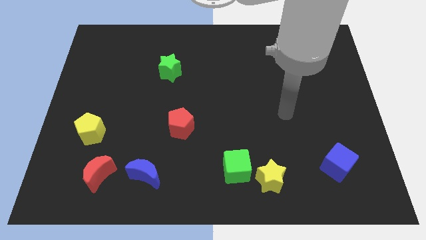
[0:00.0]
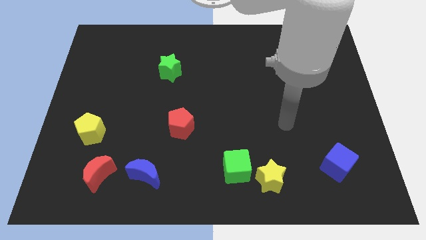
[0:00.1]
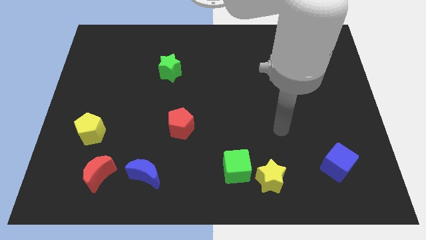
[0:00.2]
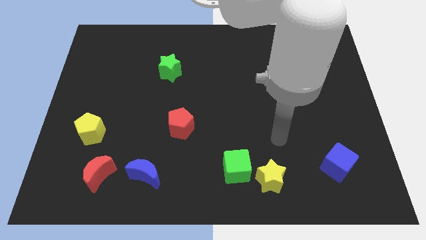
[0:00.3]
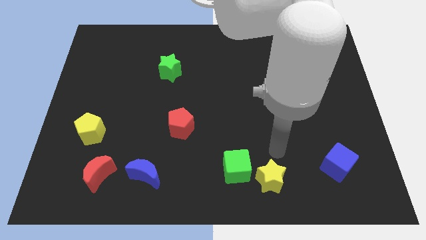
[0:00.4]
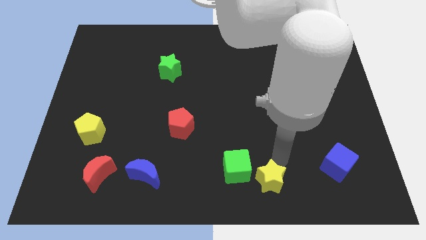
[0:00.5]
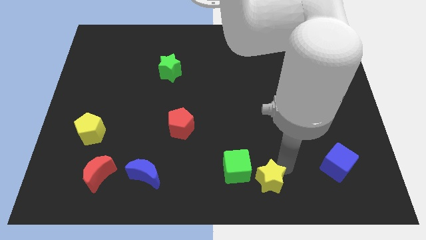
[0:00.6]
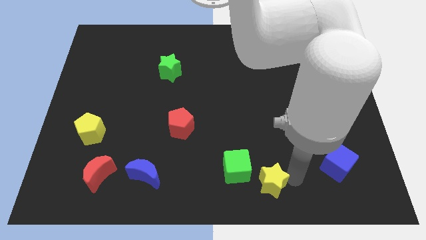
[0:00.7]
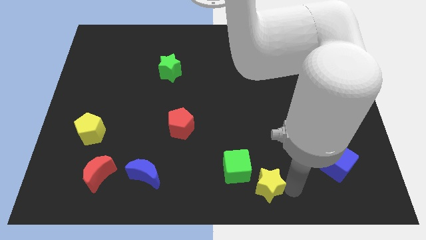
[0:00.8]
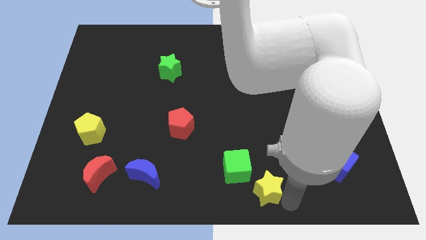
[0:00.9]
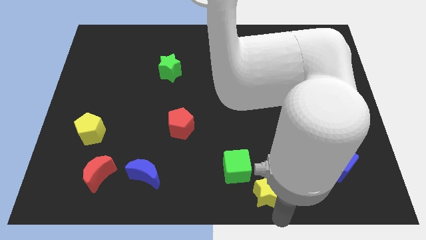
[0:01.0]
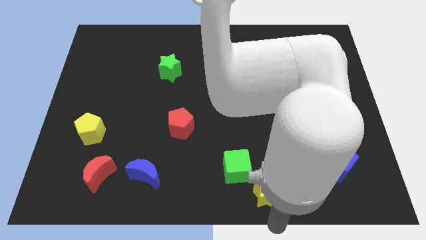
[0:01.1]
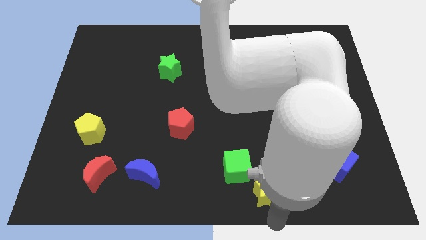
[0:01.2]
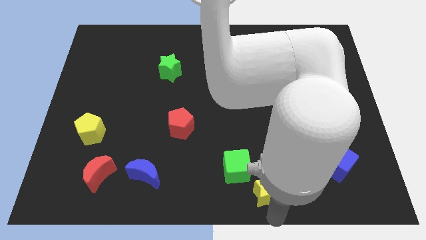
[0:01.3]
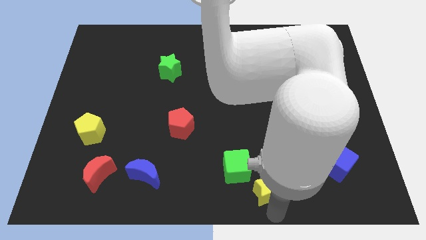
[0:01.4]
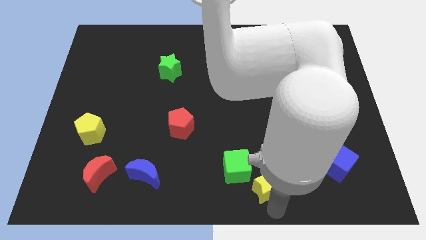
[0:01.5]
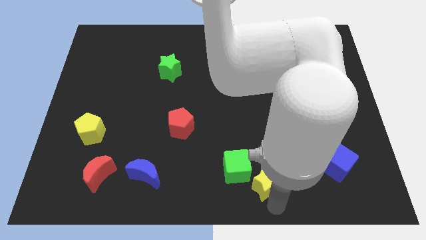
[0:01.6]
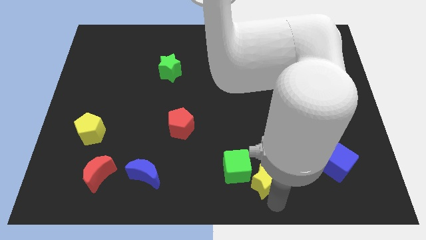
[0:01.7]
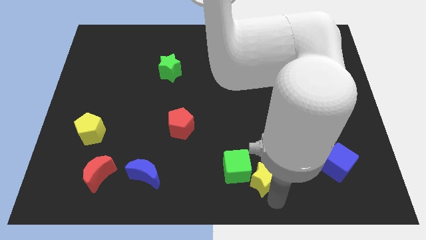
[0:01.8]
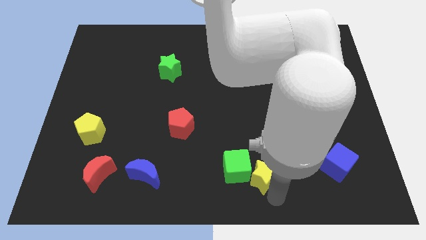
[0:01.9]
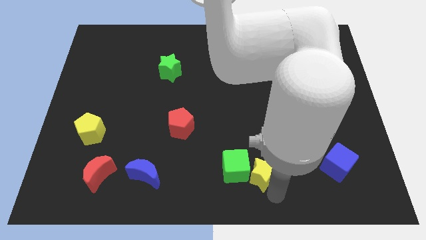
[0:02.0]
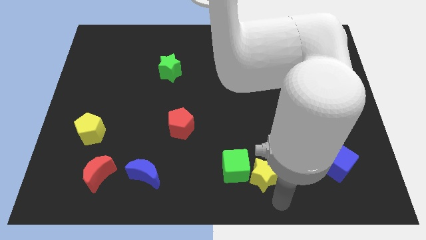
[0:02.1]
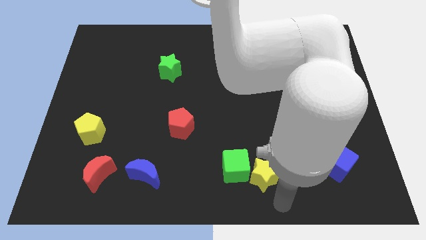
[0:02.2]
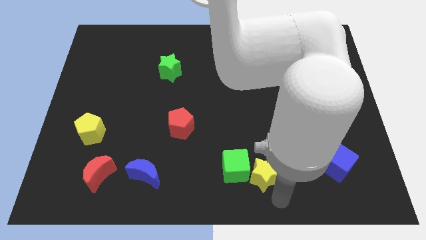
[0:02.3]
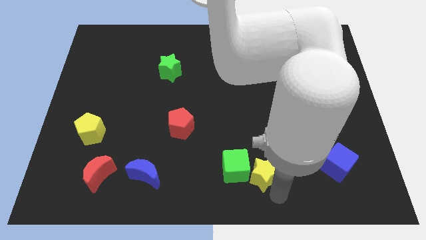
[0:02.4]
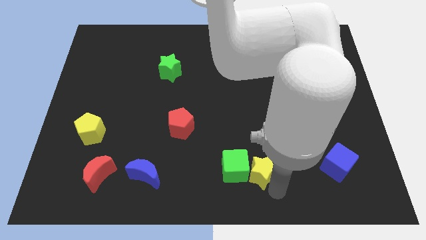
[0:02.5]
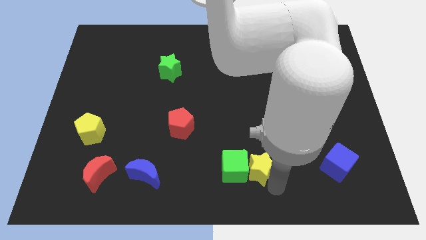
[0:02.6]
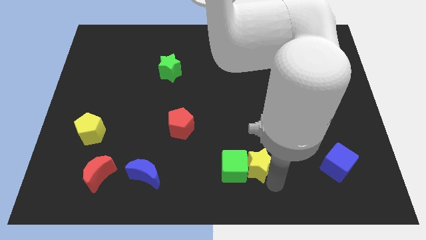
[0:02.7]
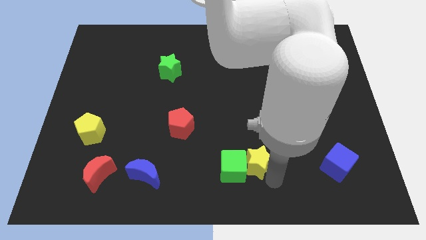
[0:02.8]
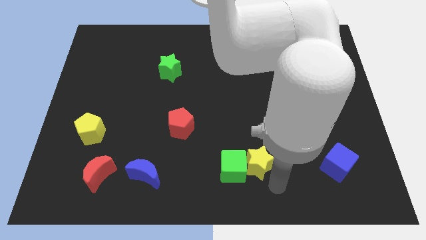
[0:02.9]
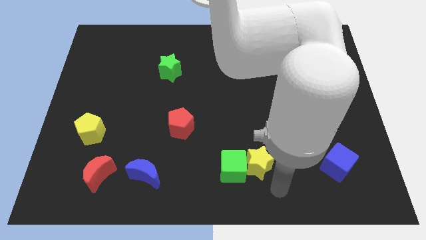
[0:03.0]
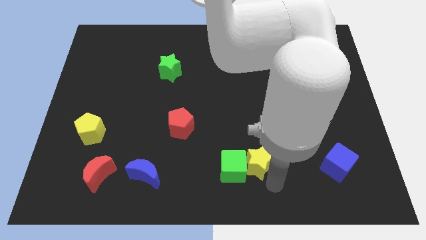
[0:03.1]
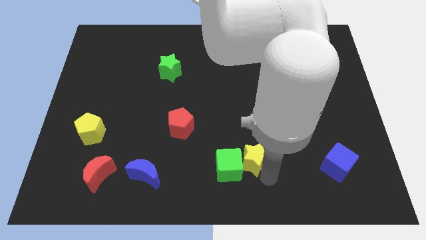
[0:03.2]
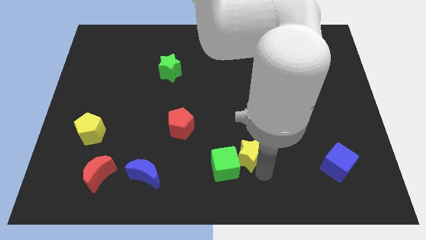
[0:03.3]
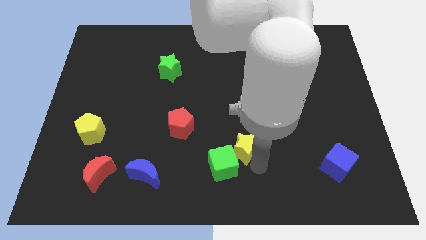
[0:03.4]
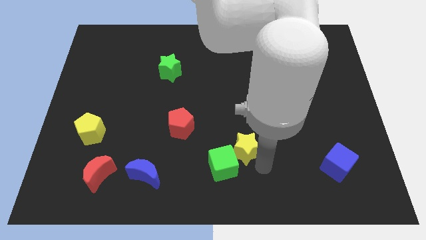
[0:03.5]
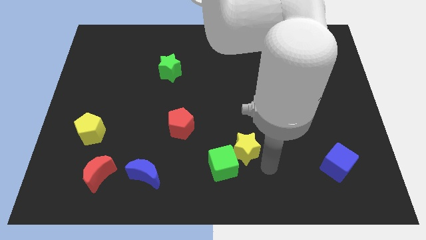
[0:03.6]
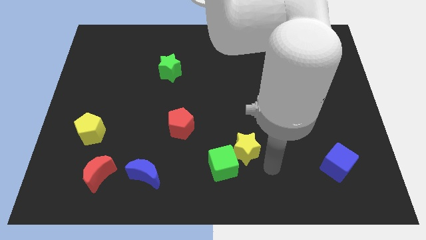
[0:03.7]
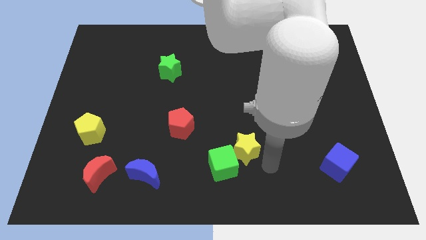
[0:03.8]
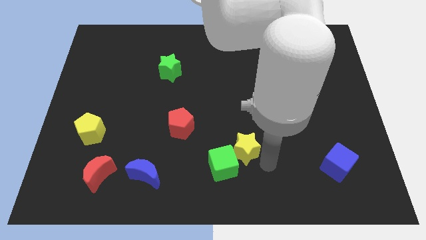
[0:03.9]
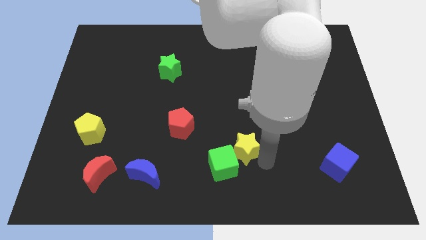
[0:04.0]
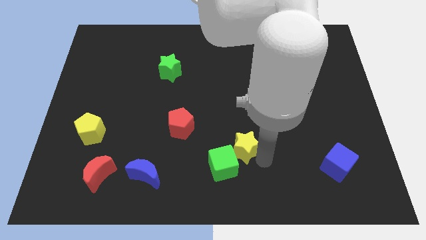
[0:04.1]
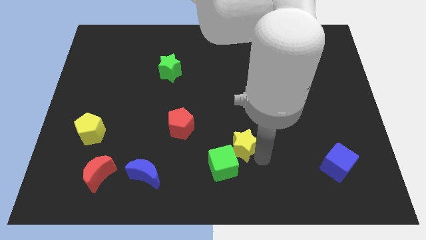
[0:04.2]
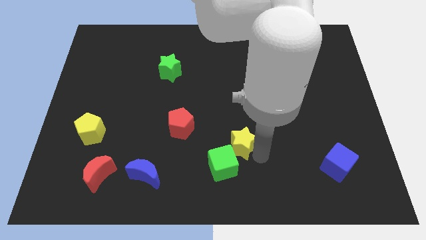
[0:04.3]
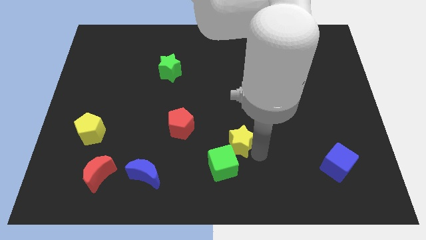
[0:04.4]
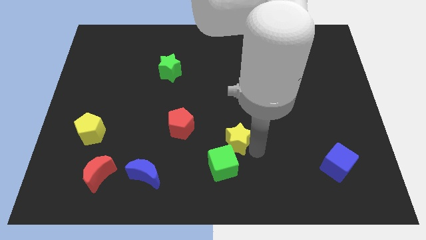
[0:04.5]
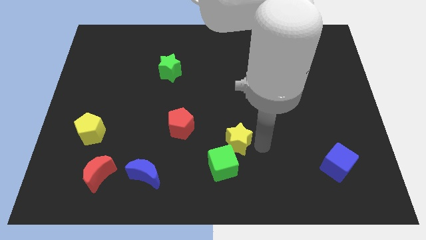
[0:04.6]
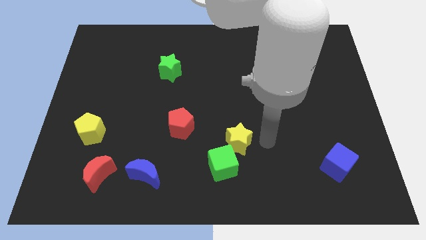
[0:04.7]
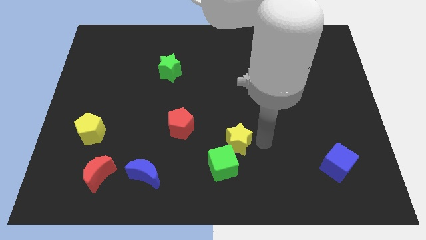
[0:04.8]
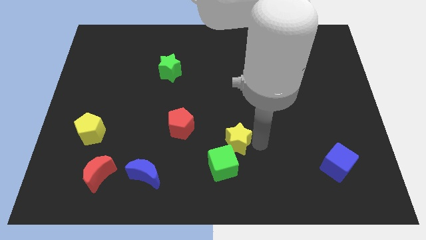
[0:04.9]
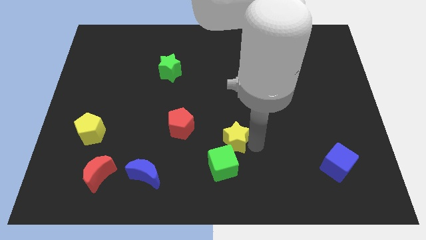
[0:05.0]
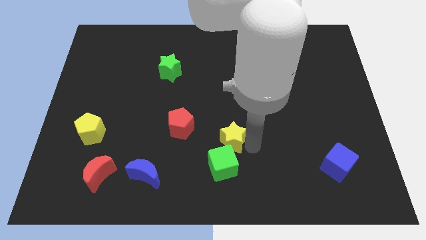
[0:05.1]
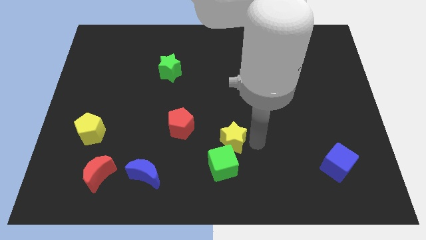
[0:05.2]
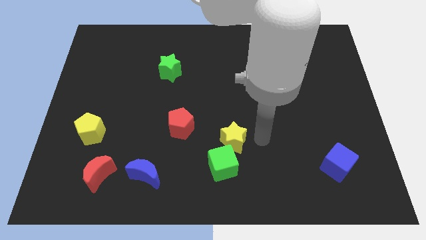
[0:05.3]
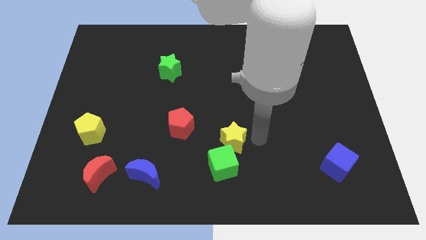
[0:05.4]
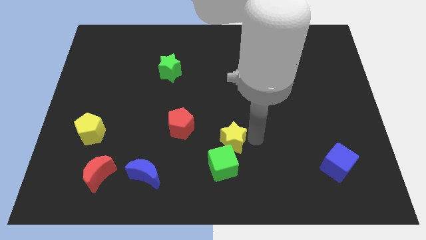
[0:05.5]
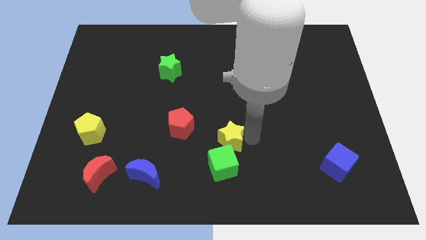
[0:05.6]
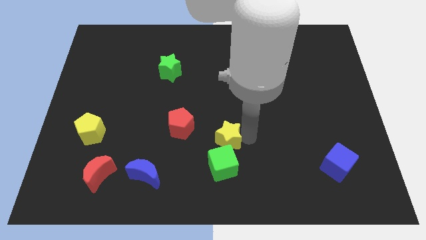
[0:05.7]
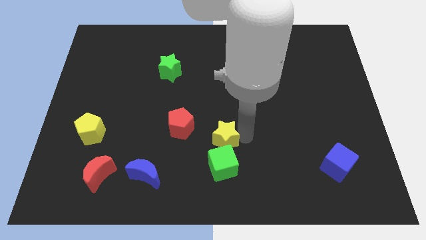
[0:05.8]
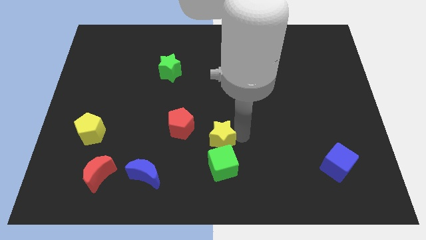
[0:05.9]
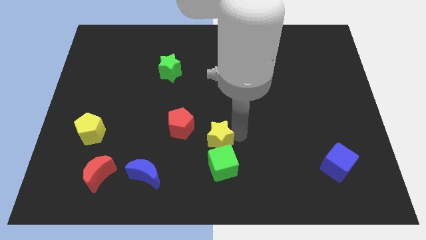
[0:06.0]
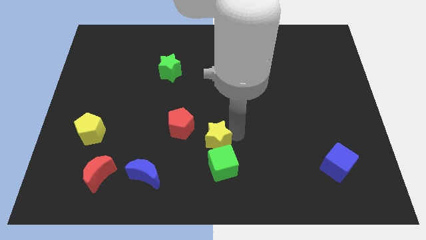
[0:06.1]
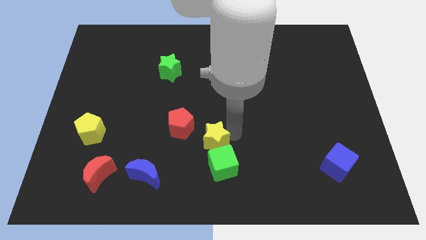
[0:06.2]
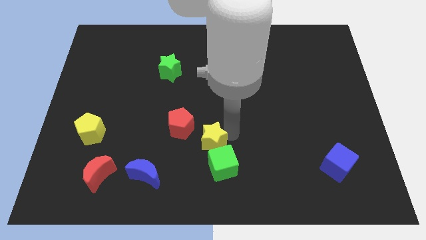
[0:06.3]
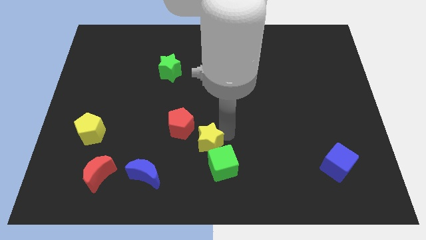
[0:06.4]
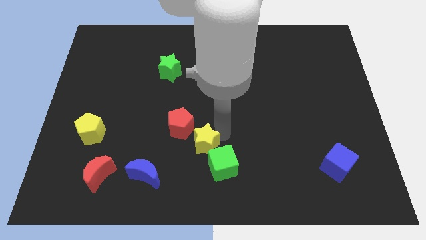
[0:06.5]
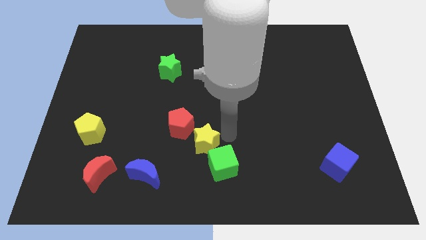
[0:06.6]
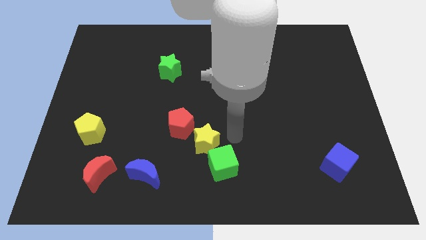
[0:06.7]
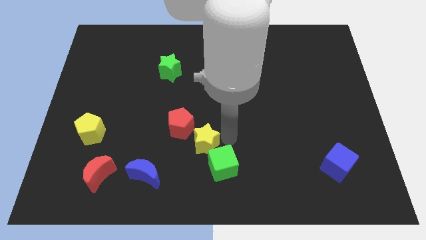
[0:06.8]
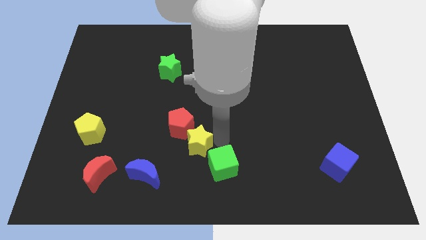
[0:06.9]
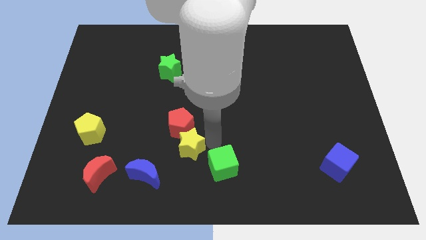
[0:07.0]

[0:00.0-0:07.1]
move the yellow star to the top right side of the blue moon

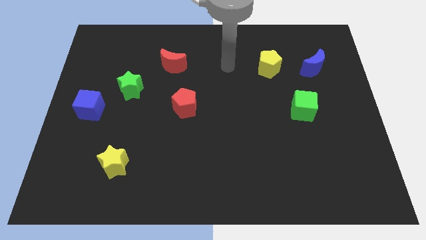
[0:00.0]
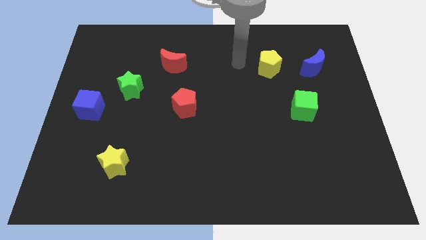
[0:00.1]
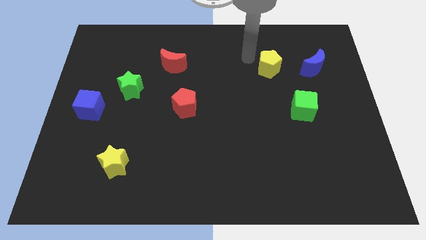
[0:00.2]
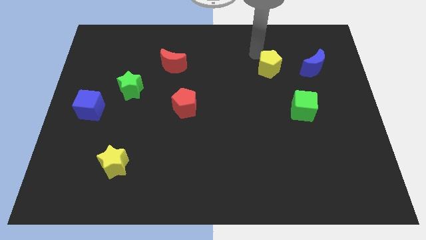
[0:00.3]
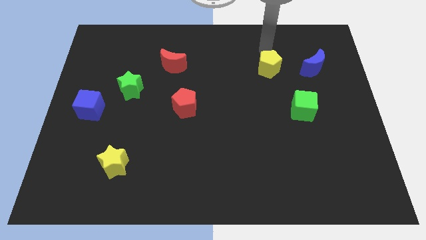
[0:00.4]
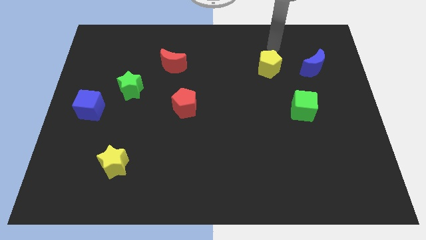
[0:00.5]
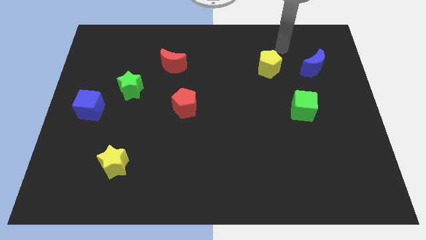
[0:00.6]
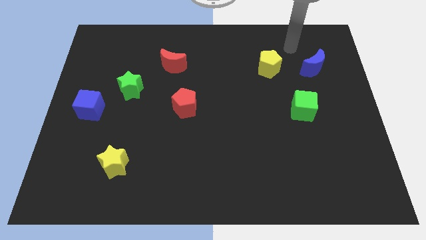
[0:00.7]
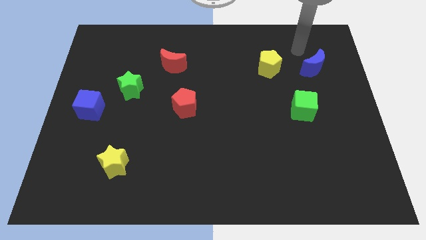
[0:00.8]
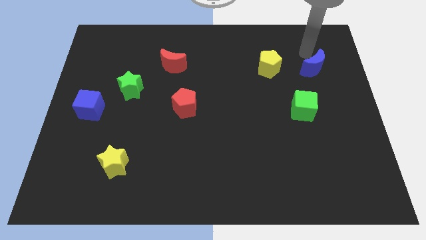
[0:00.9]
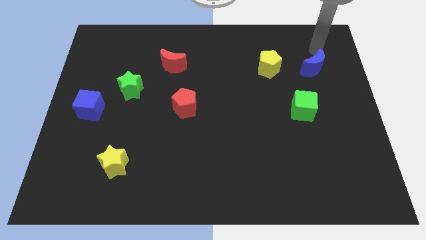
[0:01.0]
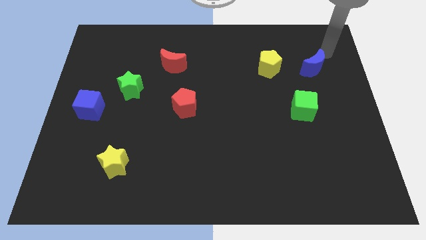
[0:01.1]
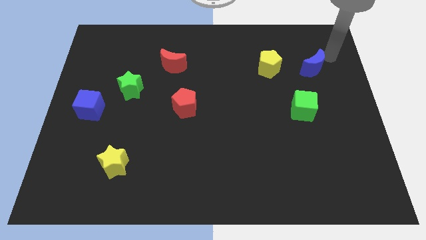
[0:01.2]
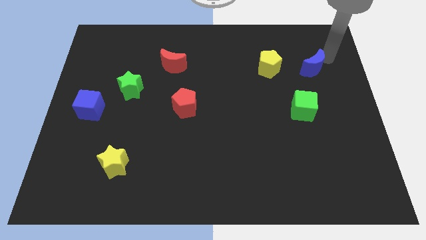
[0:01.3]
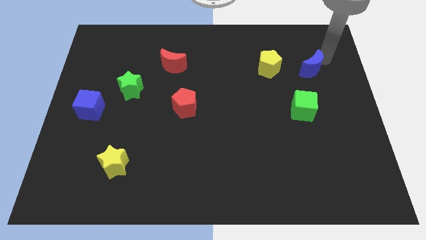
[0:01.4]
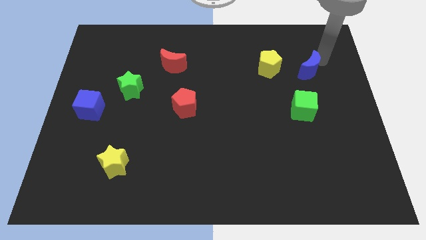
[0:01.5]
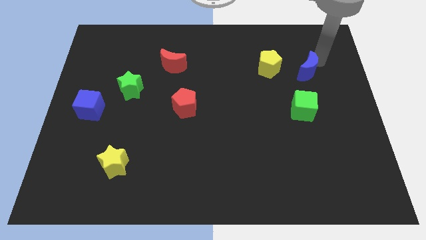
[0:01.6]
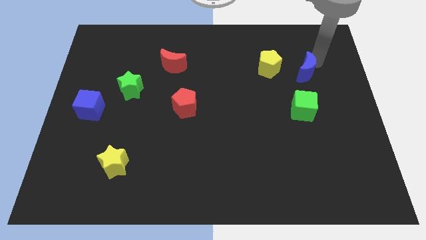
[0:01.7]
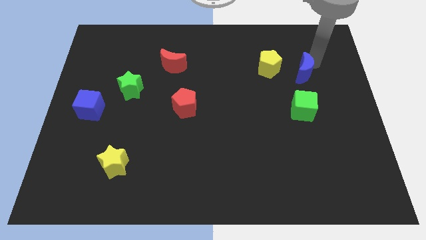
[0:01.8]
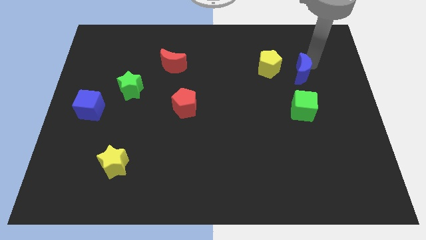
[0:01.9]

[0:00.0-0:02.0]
slide the blue moon diagonally down and to the right of the yellow pentagon
